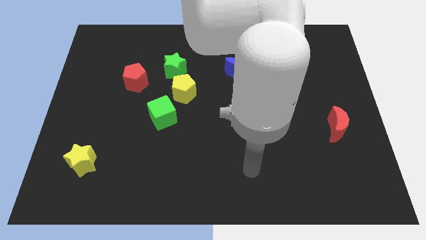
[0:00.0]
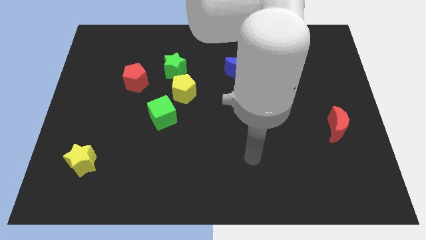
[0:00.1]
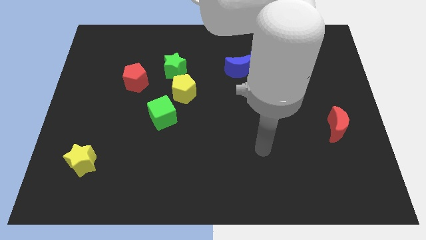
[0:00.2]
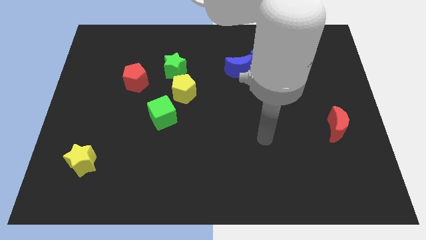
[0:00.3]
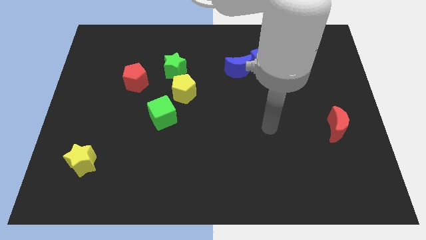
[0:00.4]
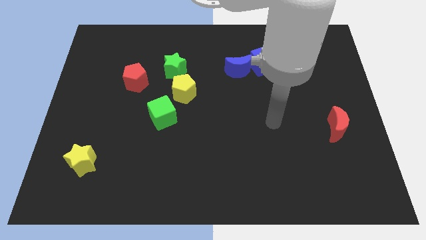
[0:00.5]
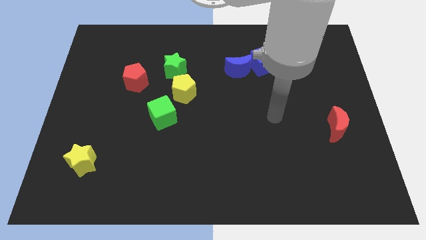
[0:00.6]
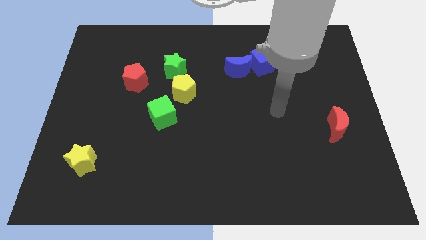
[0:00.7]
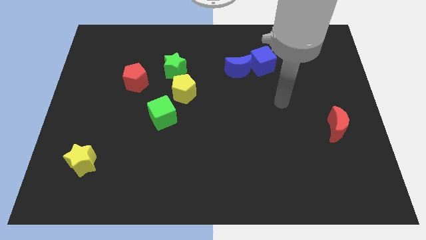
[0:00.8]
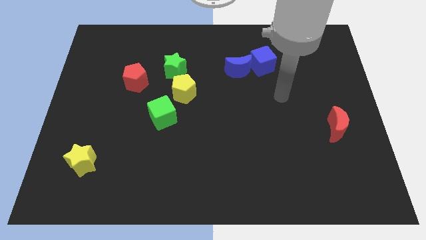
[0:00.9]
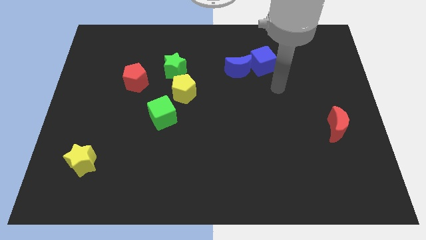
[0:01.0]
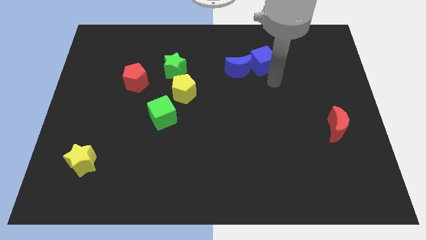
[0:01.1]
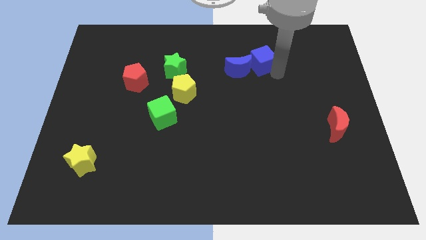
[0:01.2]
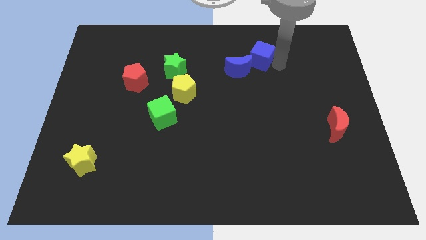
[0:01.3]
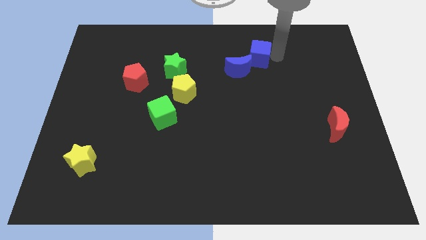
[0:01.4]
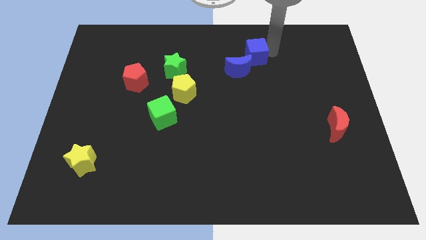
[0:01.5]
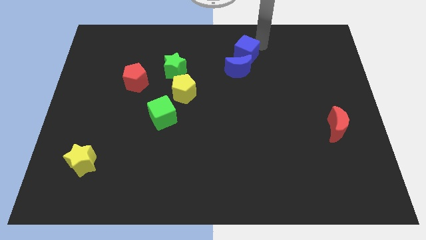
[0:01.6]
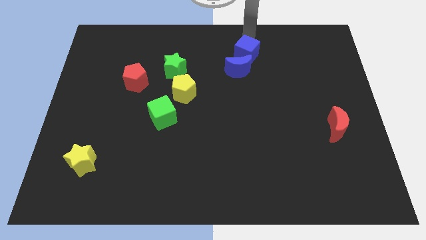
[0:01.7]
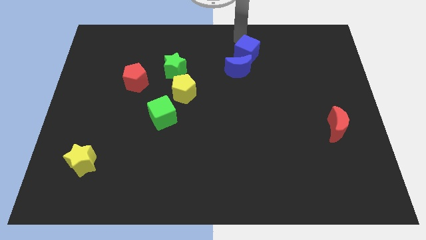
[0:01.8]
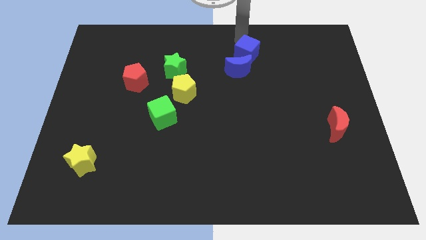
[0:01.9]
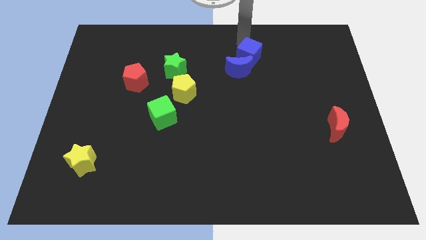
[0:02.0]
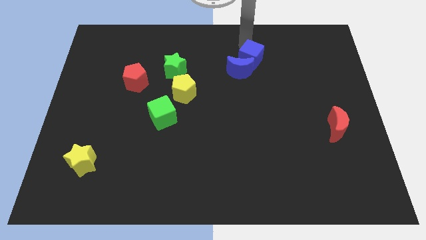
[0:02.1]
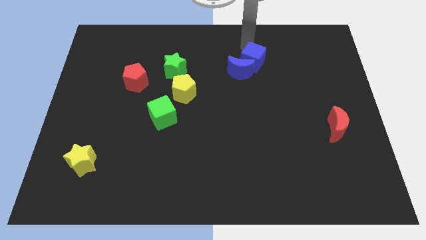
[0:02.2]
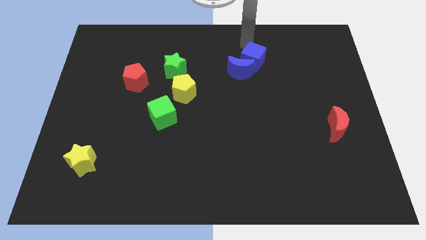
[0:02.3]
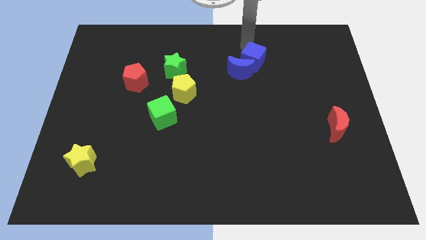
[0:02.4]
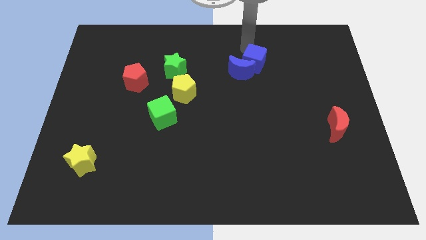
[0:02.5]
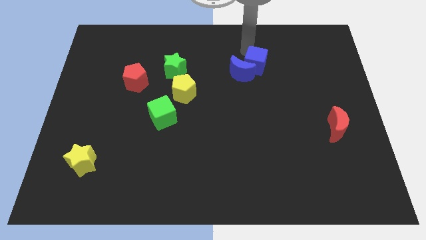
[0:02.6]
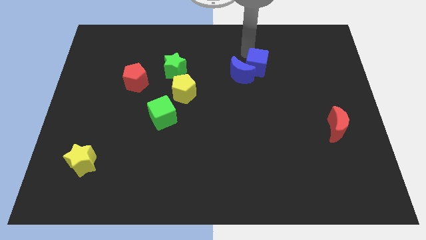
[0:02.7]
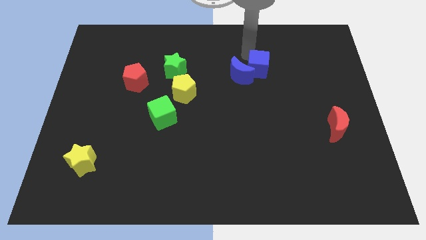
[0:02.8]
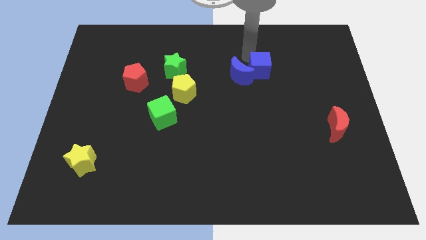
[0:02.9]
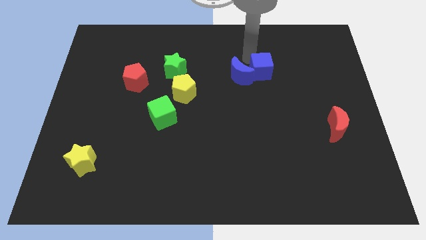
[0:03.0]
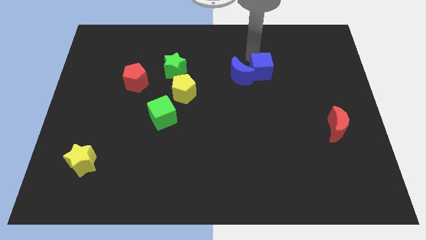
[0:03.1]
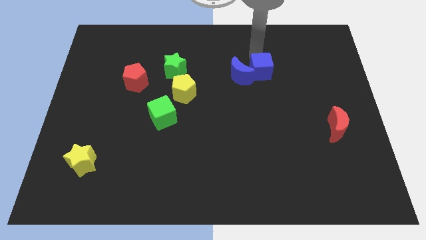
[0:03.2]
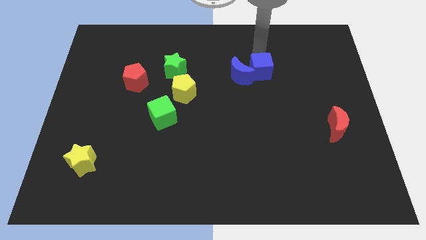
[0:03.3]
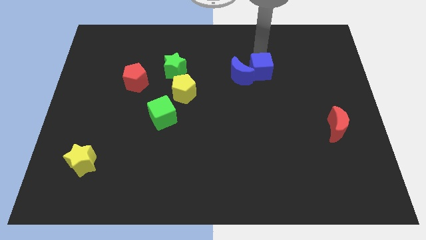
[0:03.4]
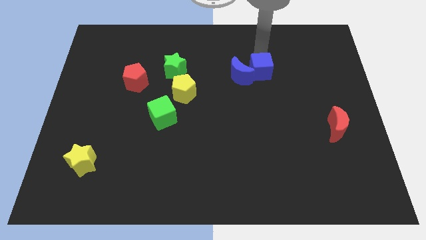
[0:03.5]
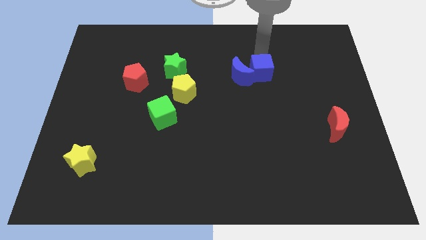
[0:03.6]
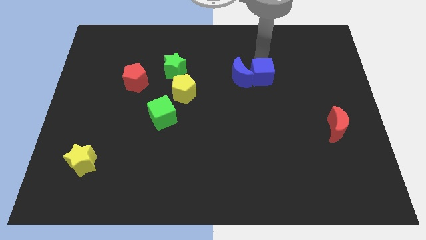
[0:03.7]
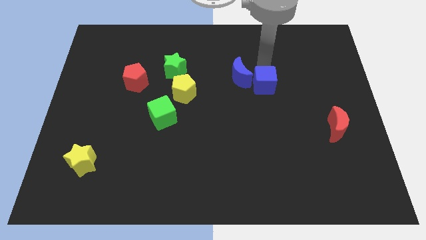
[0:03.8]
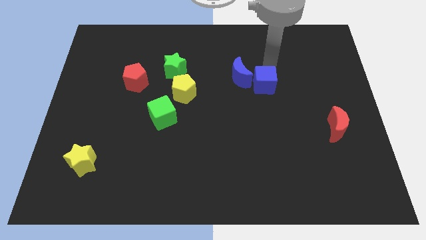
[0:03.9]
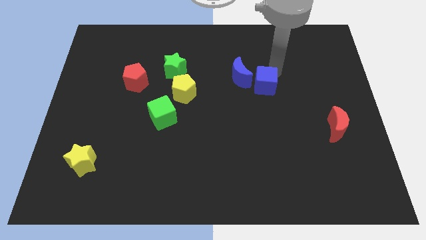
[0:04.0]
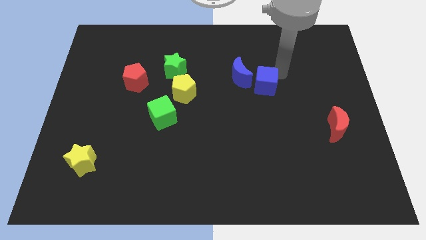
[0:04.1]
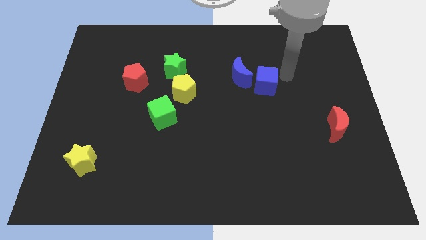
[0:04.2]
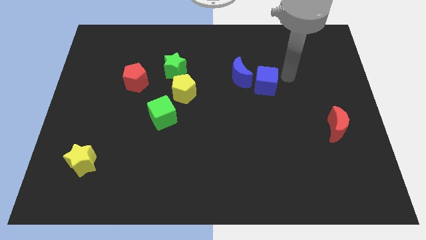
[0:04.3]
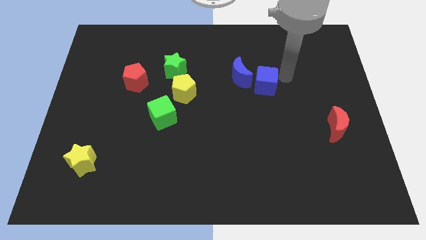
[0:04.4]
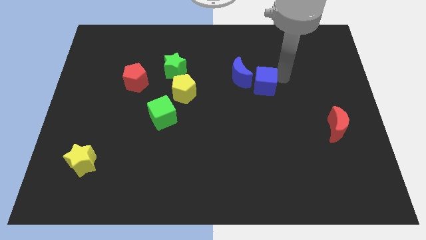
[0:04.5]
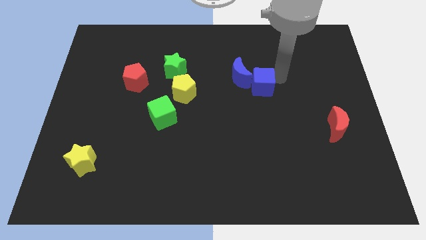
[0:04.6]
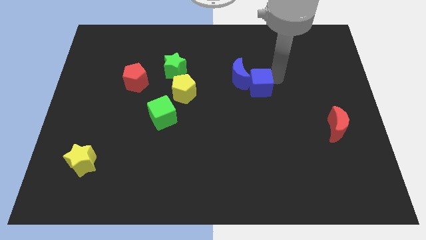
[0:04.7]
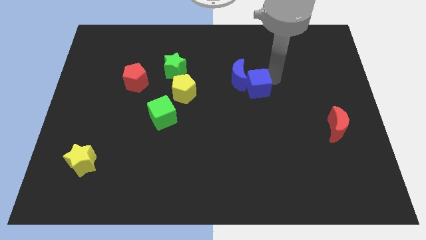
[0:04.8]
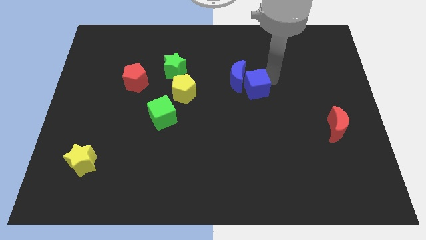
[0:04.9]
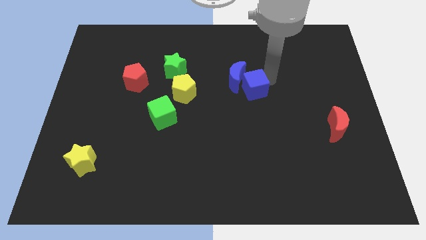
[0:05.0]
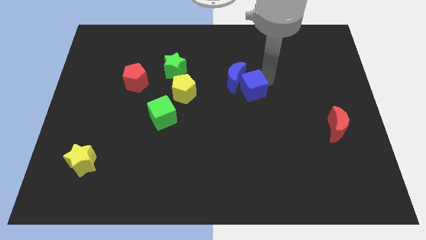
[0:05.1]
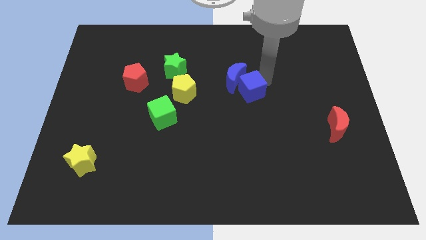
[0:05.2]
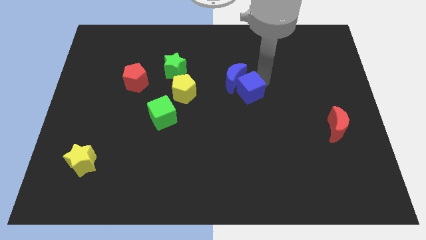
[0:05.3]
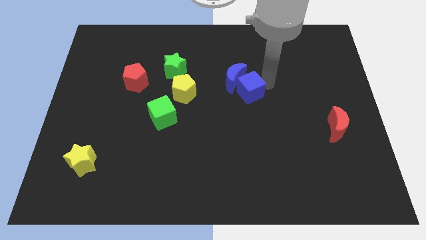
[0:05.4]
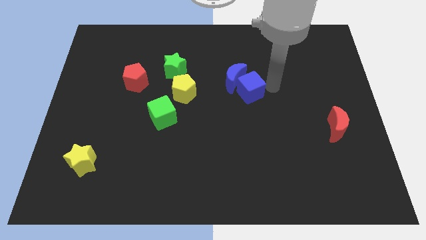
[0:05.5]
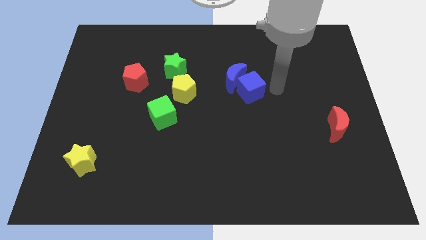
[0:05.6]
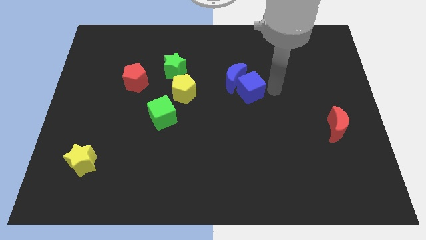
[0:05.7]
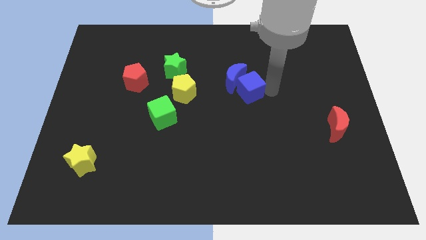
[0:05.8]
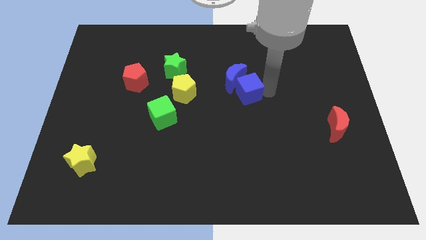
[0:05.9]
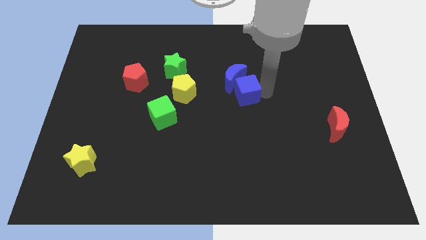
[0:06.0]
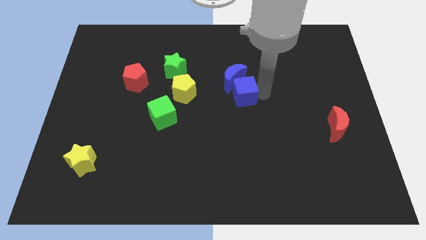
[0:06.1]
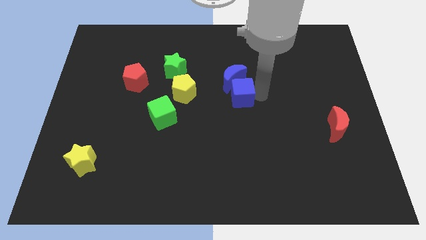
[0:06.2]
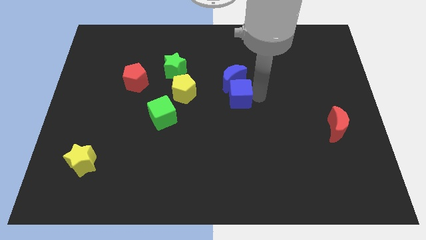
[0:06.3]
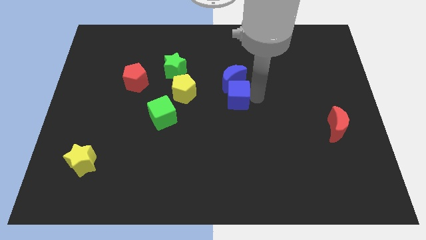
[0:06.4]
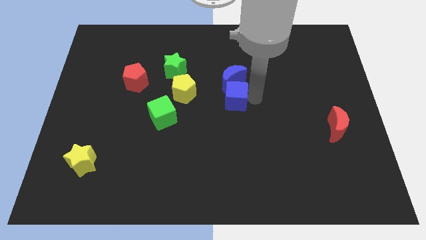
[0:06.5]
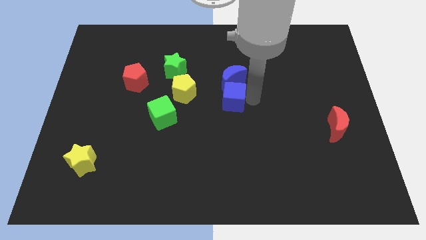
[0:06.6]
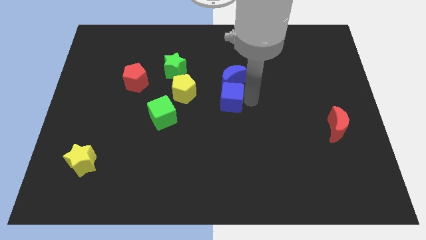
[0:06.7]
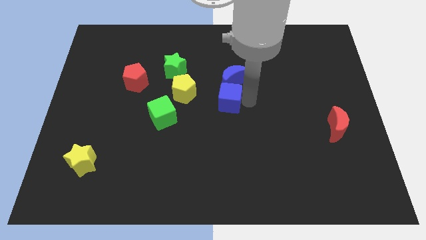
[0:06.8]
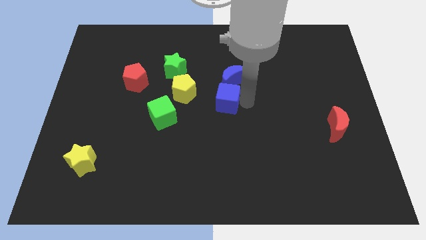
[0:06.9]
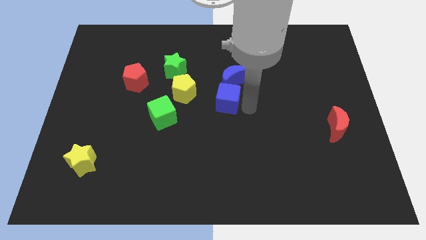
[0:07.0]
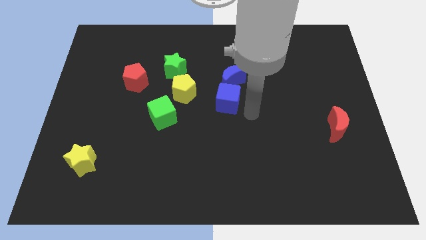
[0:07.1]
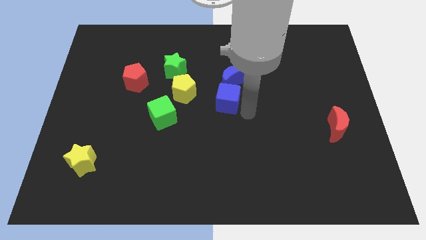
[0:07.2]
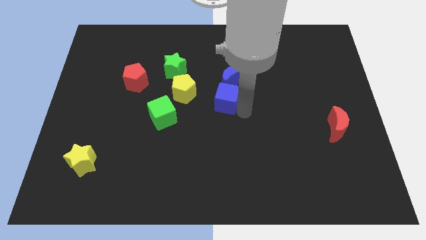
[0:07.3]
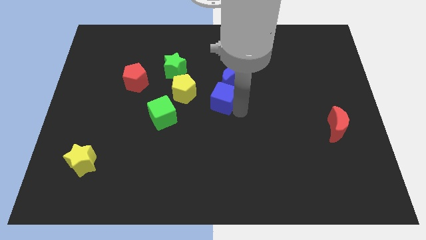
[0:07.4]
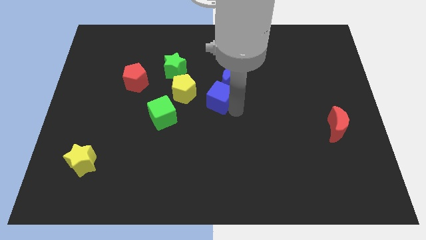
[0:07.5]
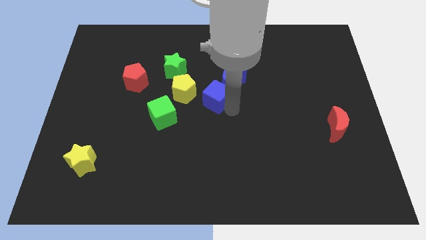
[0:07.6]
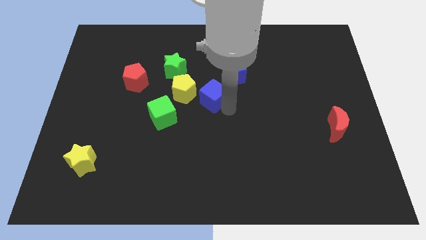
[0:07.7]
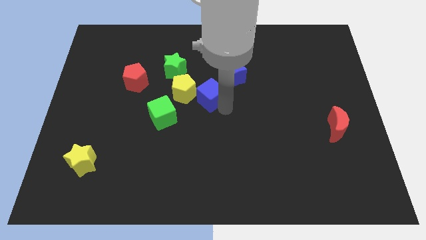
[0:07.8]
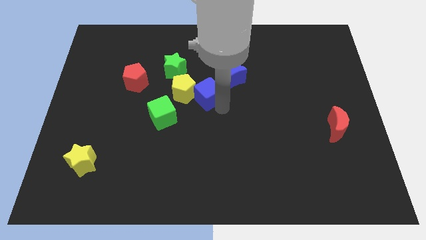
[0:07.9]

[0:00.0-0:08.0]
push the blue cube diagonally down and to the right of the green star
